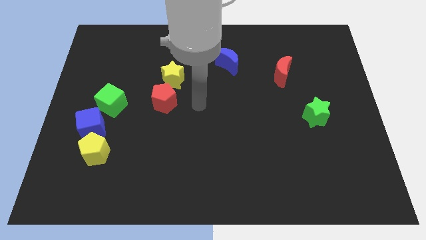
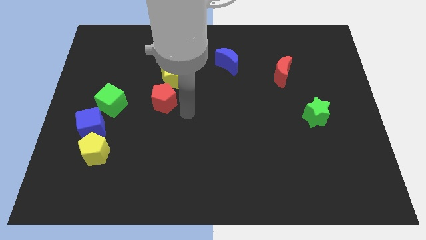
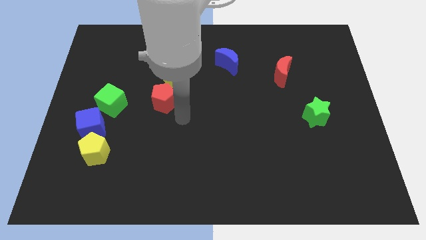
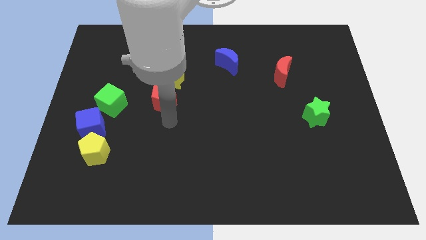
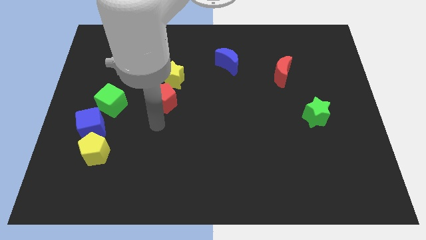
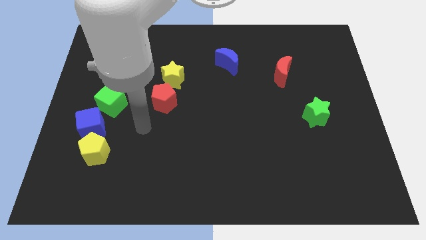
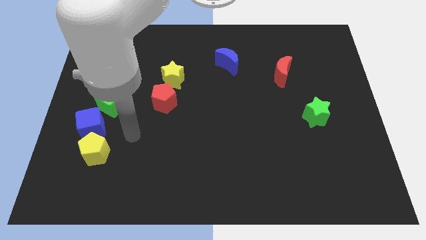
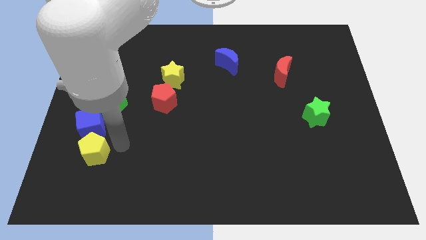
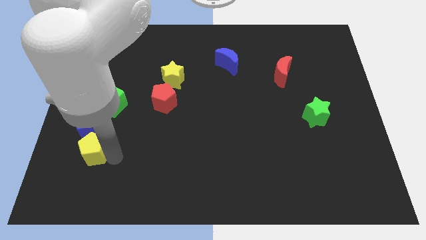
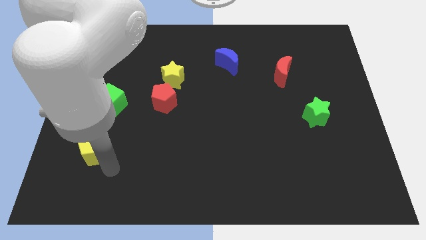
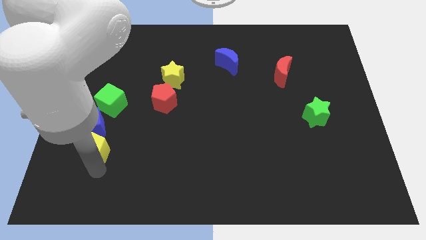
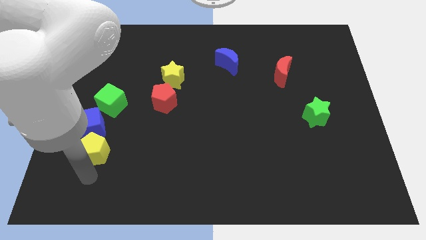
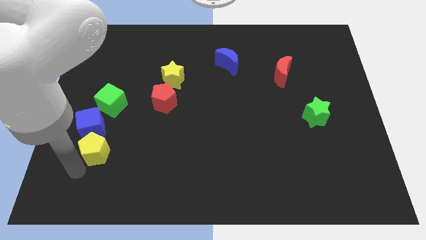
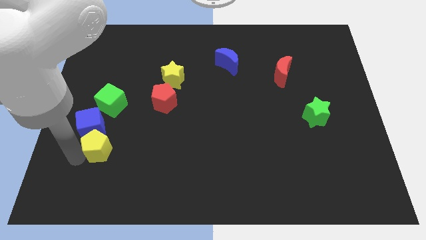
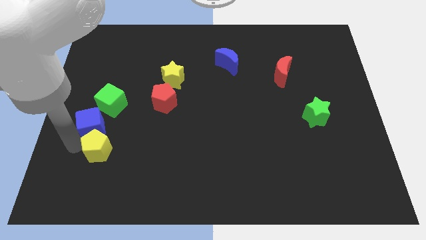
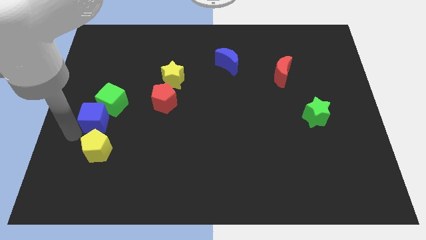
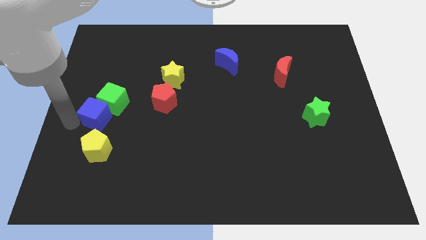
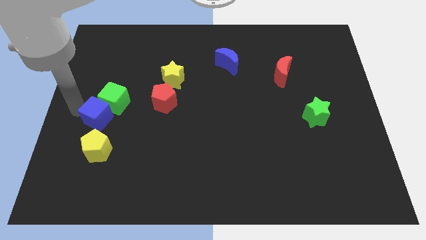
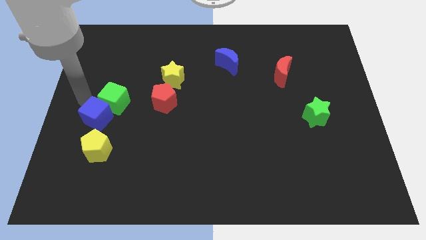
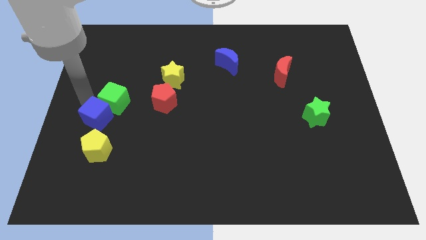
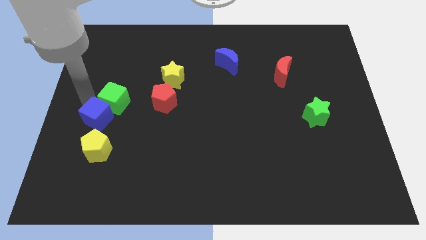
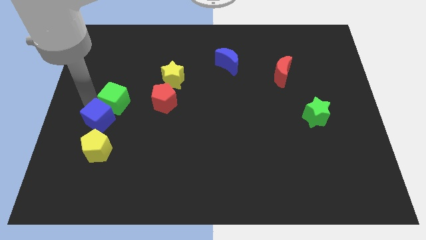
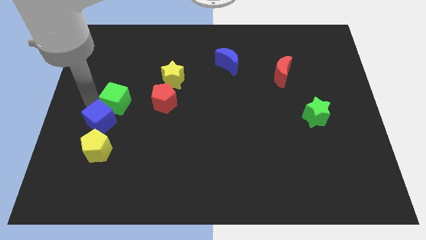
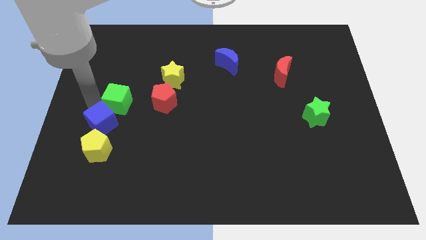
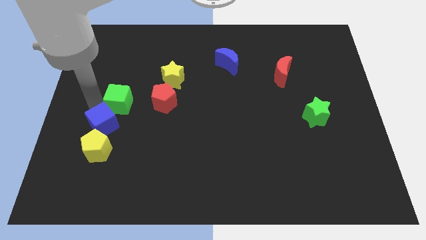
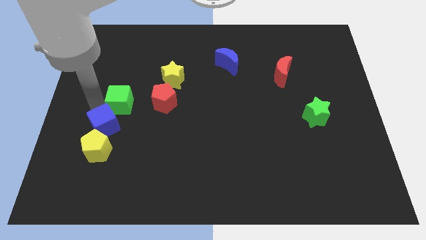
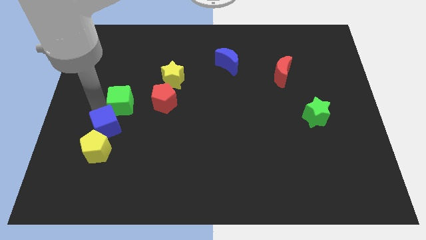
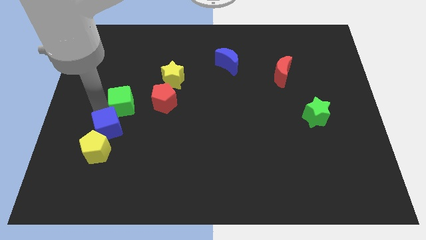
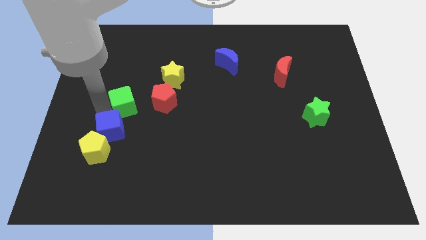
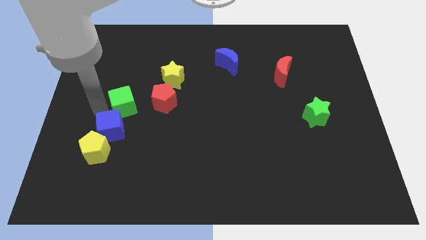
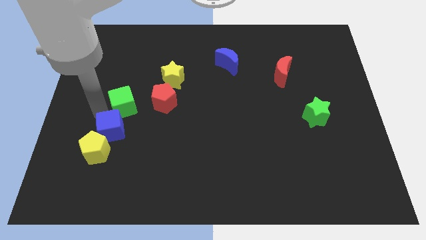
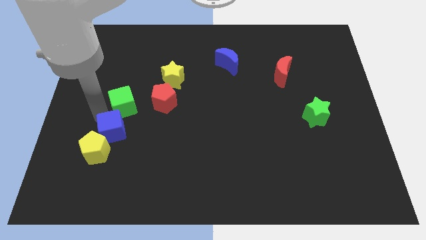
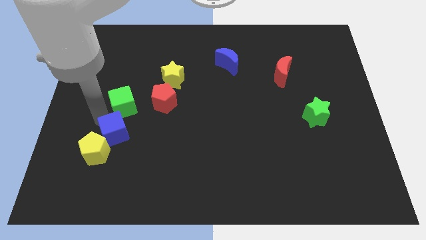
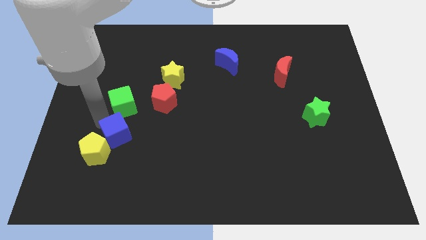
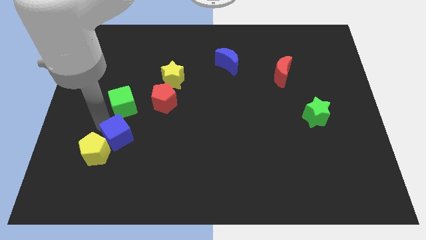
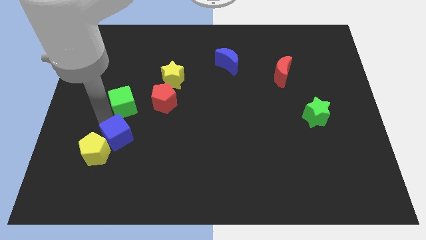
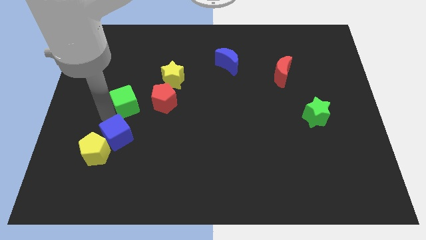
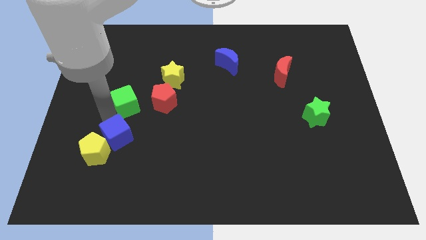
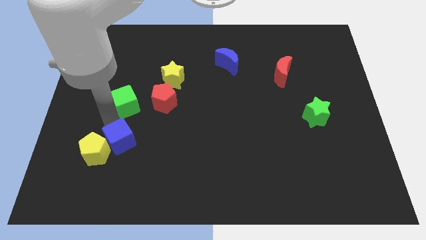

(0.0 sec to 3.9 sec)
push the blue cube somewhat downwards and to the right diagonally

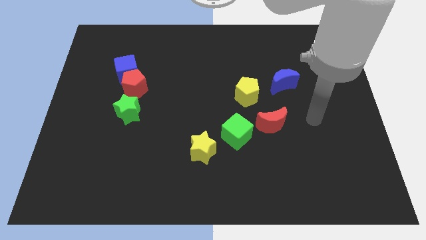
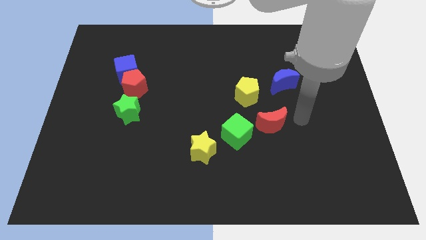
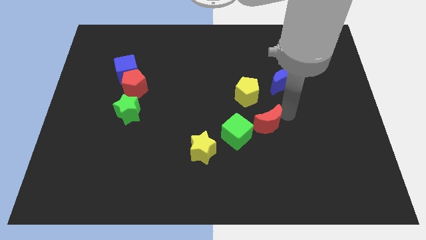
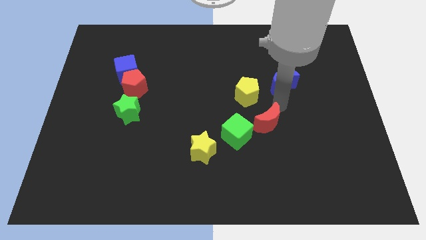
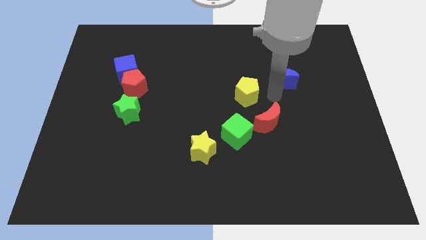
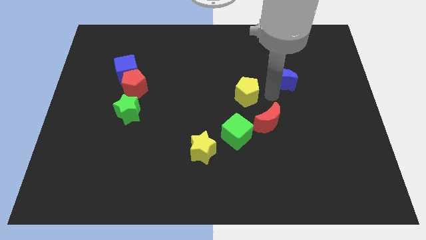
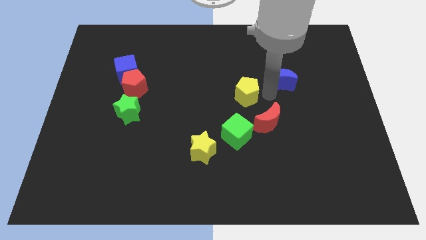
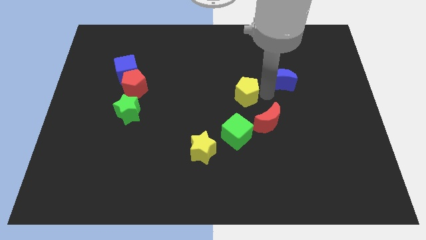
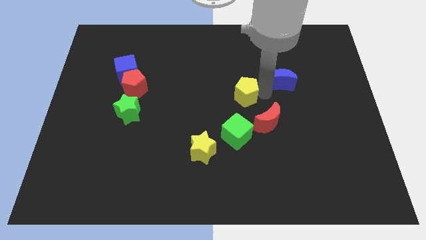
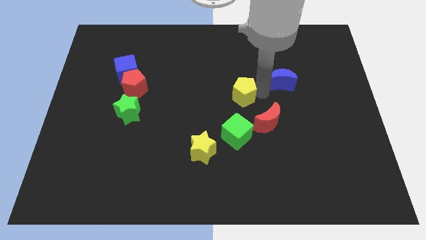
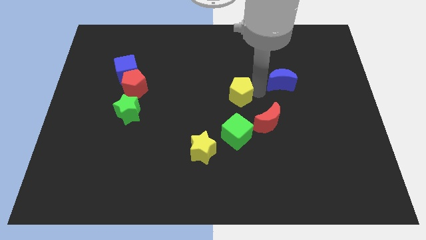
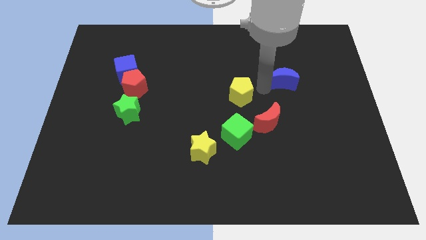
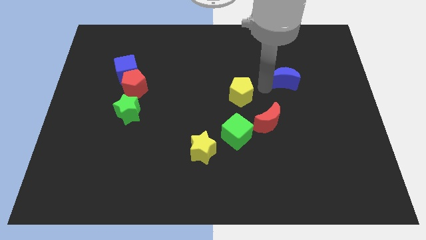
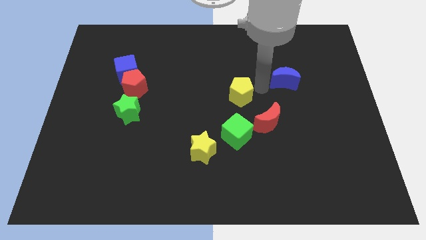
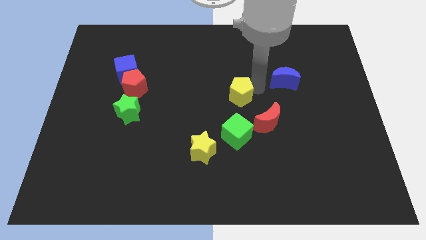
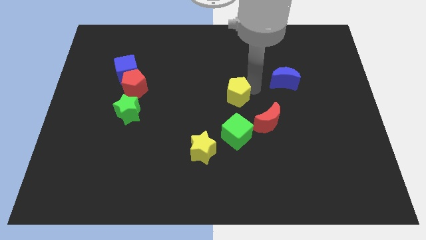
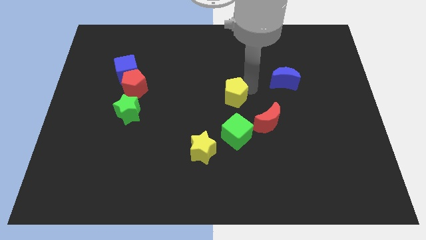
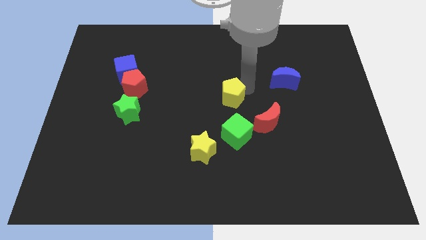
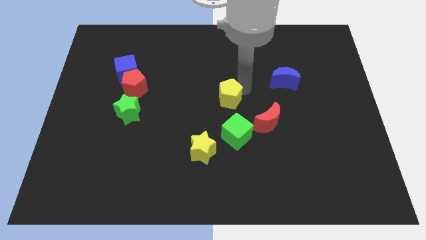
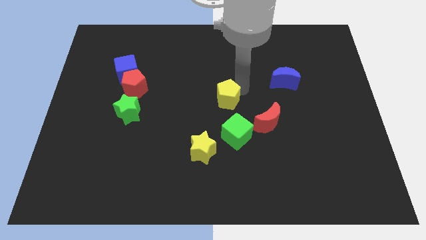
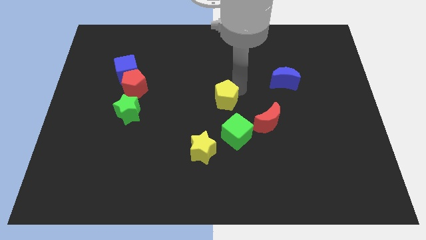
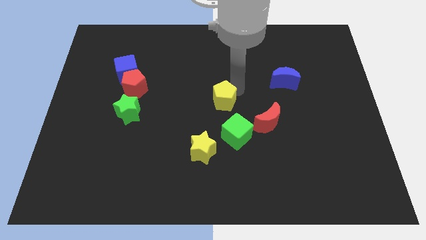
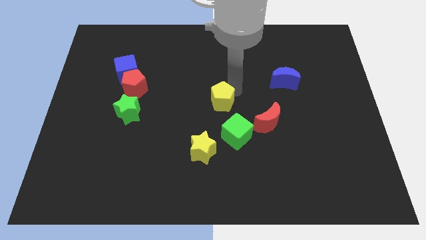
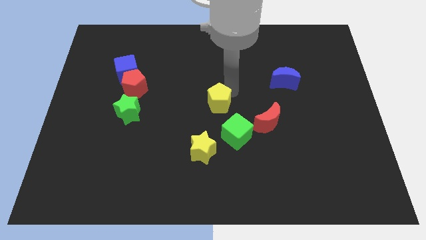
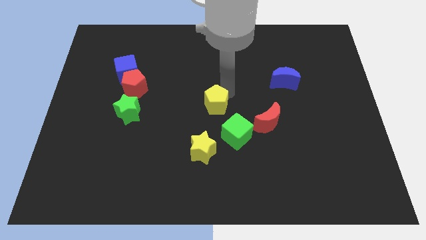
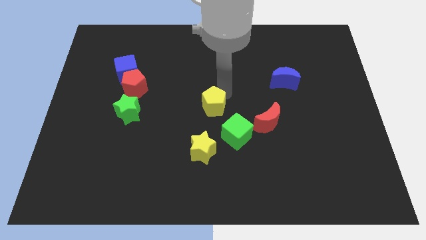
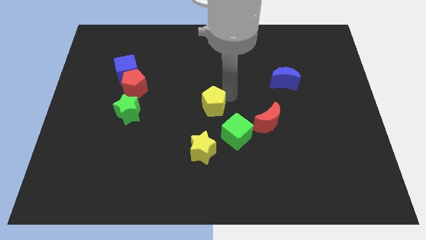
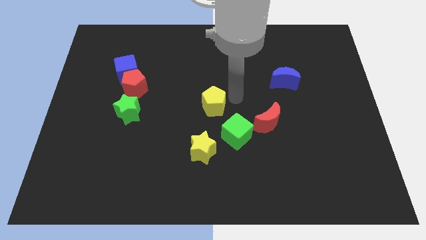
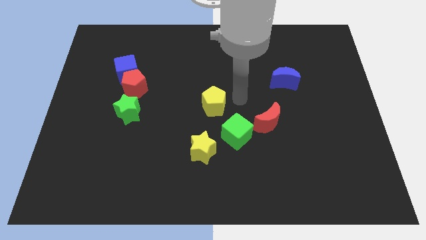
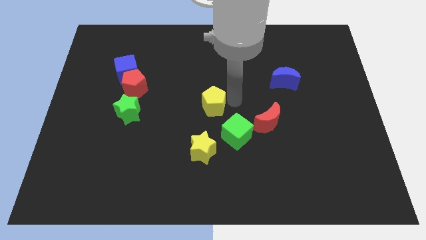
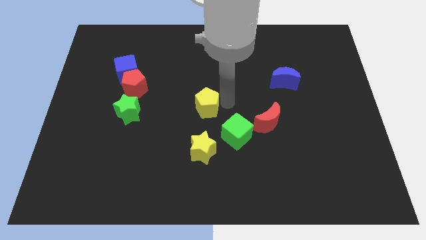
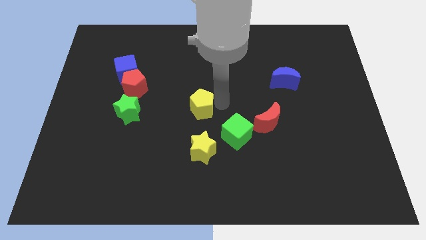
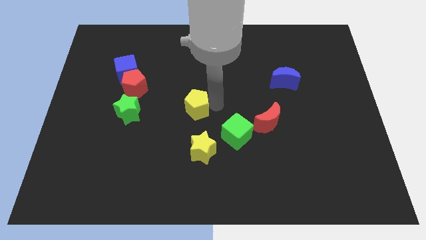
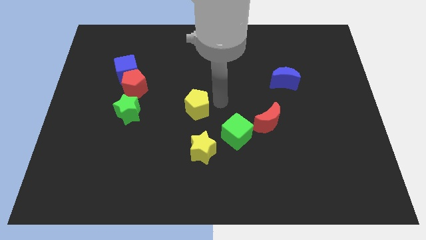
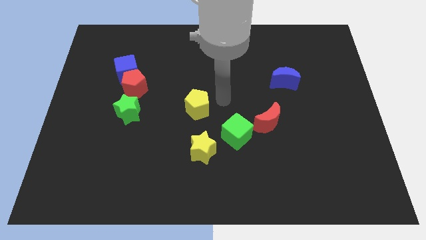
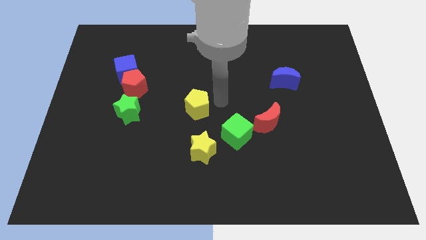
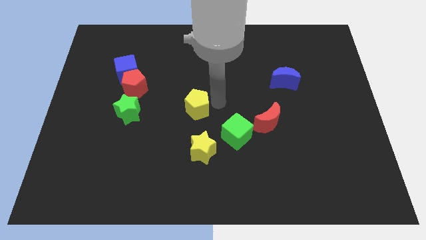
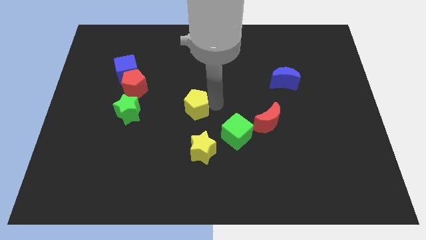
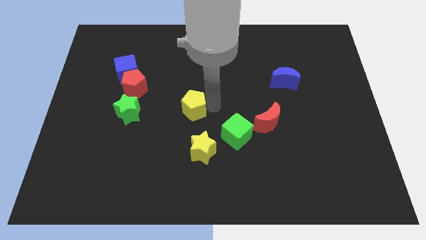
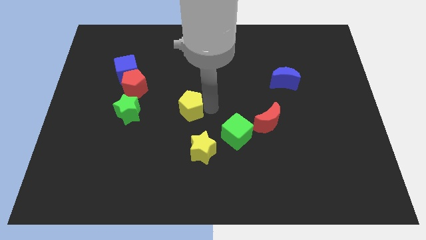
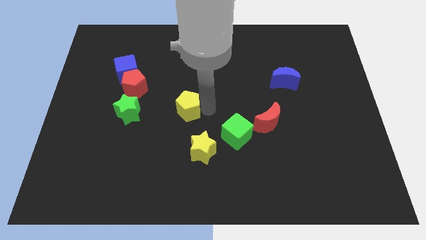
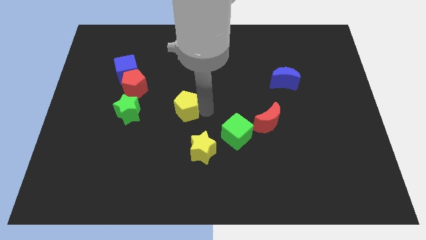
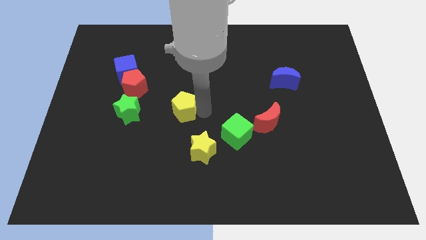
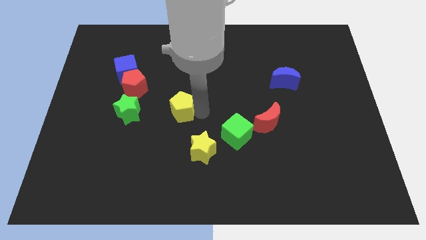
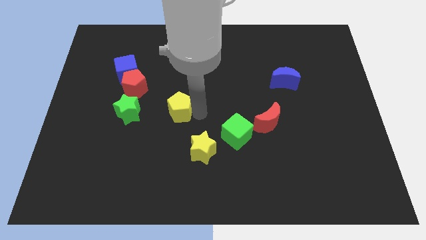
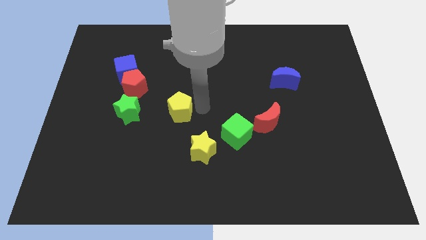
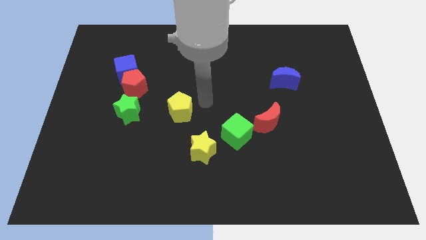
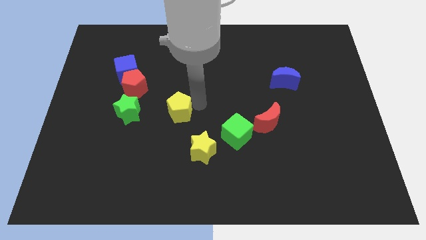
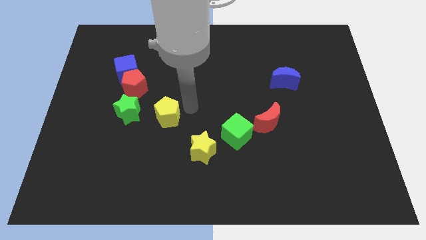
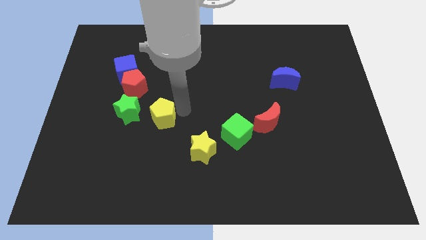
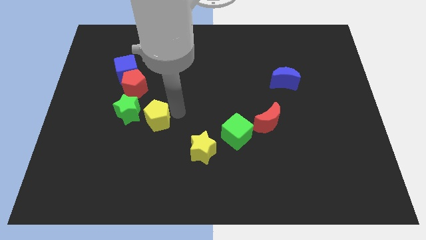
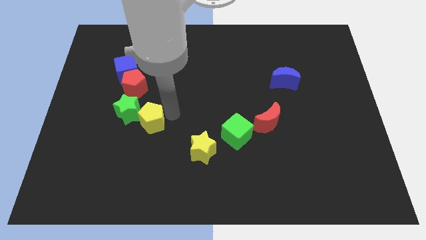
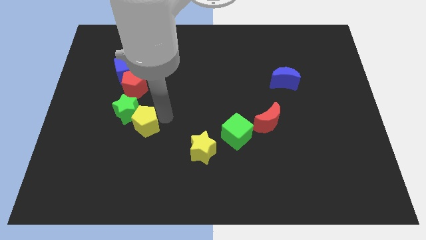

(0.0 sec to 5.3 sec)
slide the yellow pentagon left
